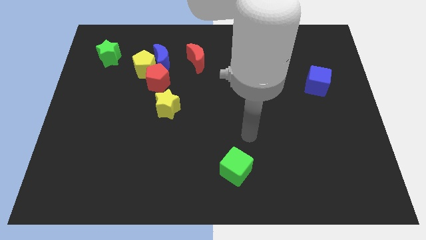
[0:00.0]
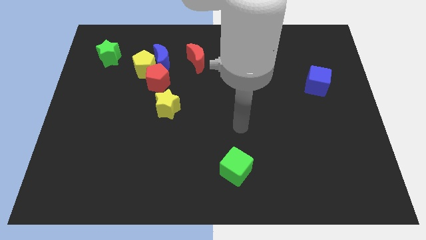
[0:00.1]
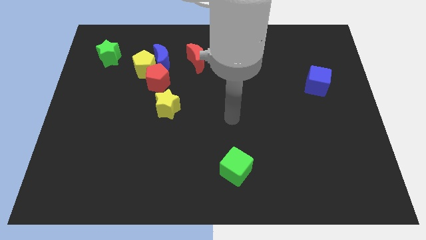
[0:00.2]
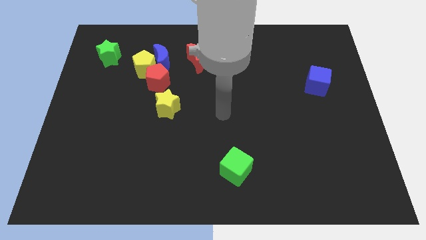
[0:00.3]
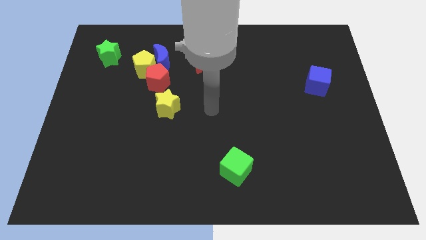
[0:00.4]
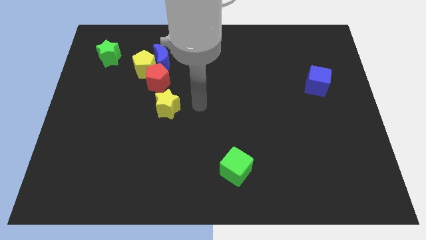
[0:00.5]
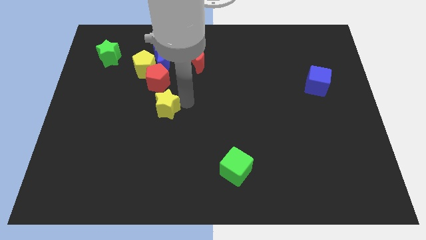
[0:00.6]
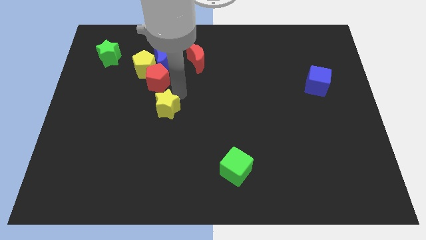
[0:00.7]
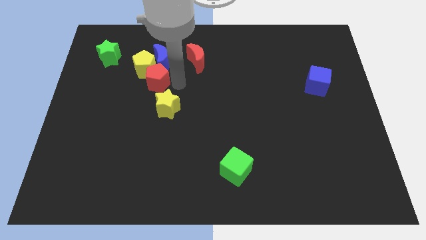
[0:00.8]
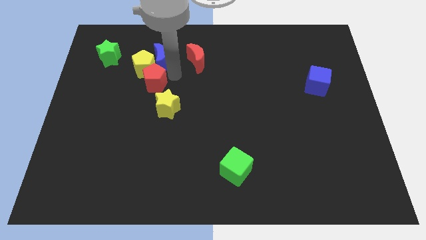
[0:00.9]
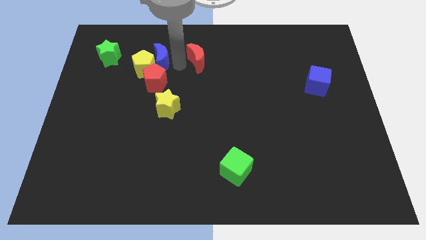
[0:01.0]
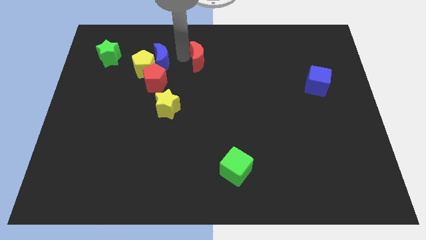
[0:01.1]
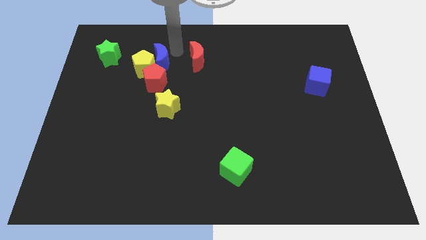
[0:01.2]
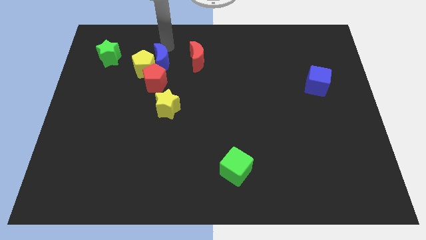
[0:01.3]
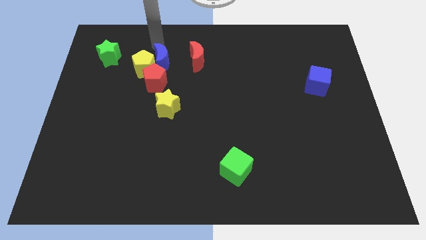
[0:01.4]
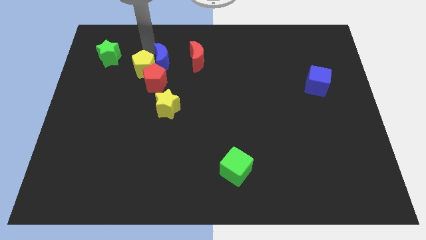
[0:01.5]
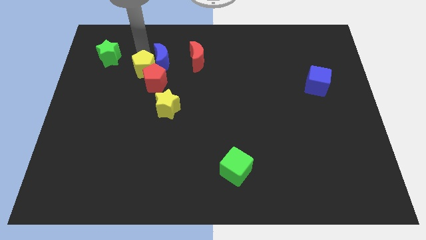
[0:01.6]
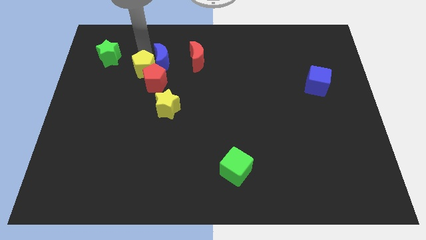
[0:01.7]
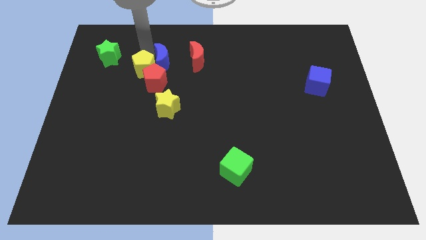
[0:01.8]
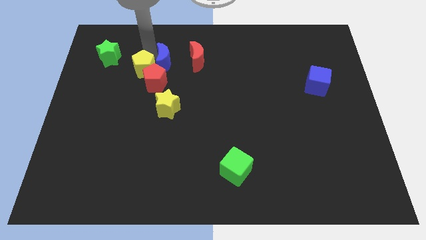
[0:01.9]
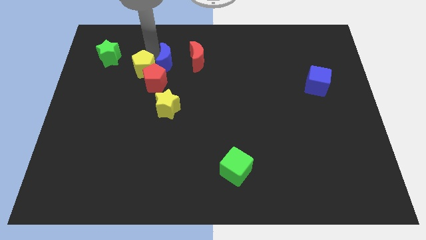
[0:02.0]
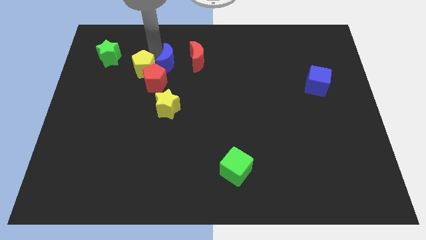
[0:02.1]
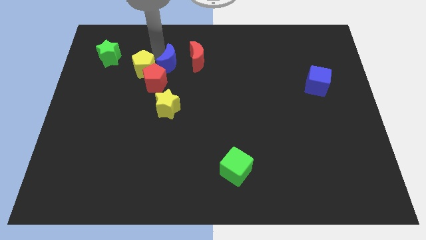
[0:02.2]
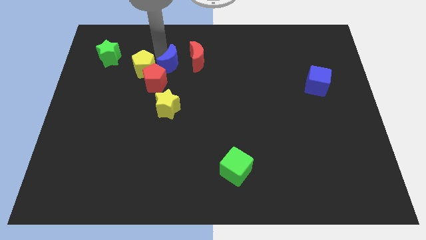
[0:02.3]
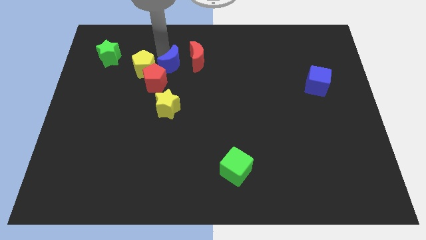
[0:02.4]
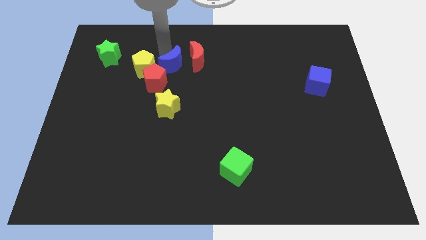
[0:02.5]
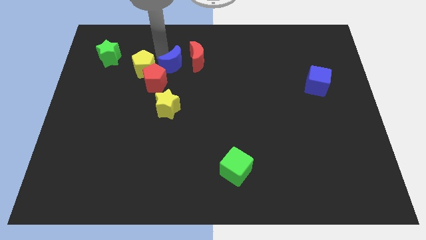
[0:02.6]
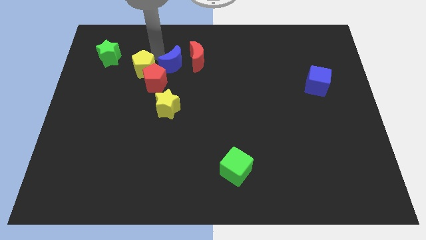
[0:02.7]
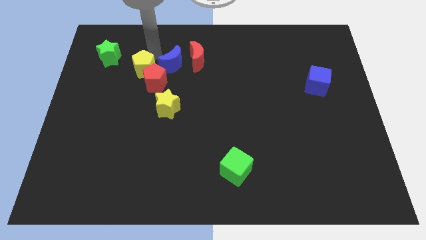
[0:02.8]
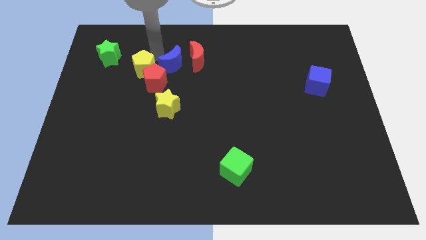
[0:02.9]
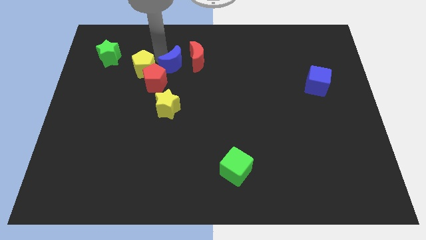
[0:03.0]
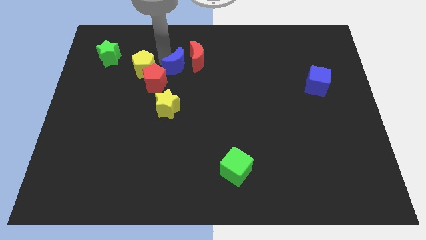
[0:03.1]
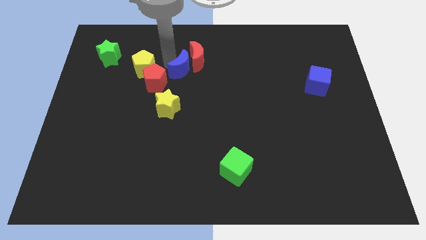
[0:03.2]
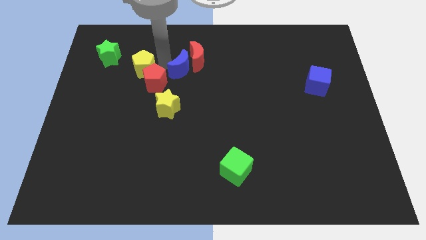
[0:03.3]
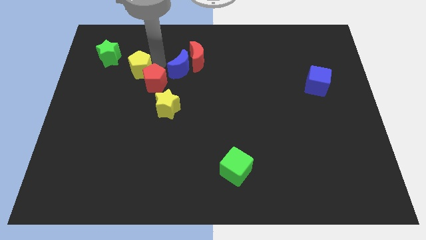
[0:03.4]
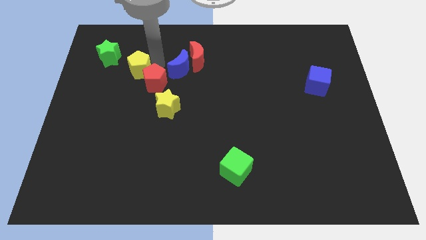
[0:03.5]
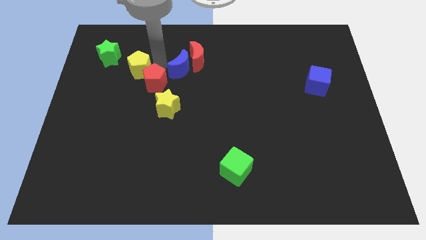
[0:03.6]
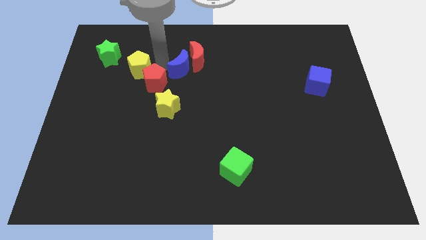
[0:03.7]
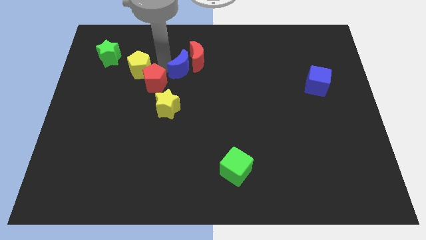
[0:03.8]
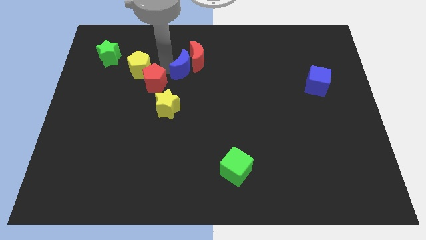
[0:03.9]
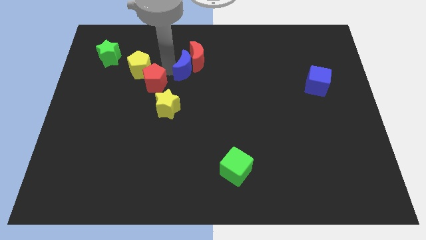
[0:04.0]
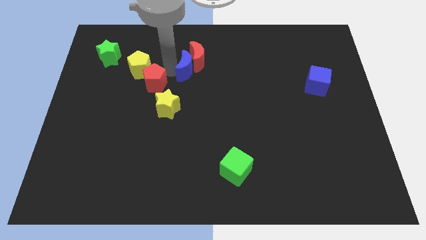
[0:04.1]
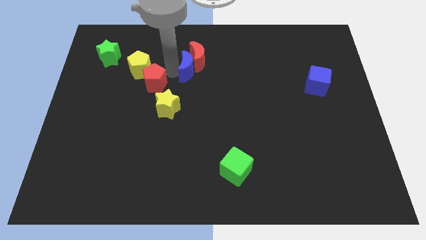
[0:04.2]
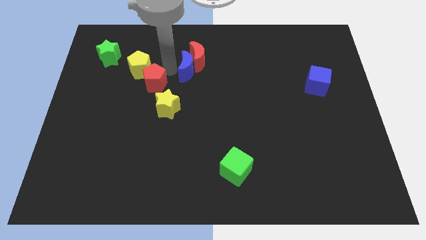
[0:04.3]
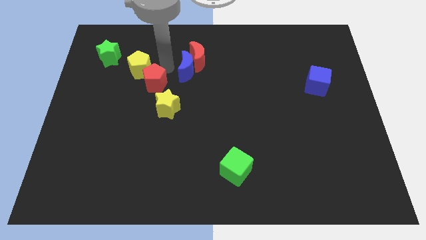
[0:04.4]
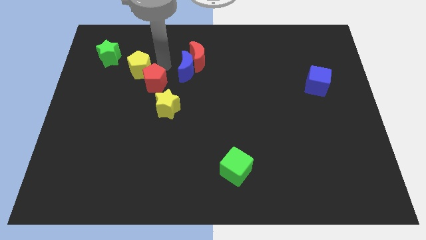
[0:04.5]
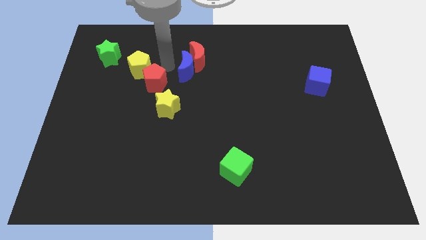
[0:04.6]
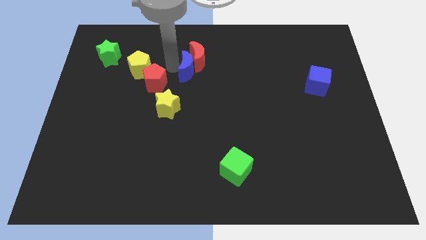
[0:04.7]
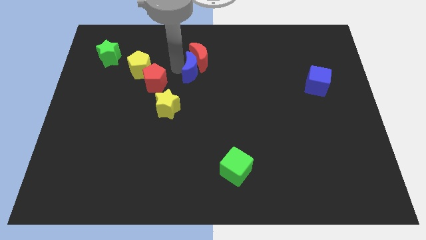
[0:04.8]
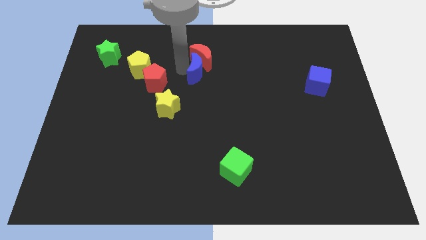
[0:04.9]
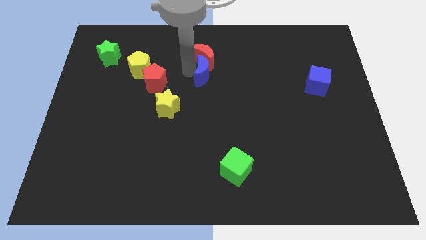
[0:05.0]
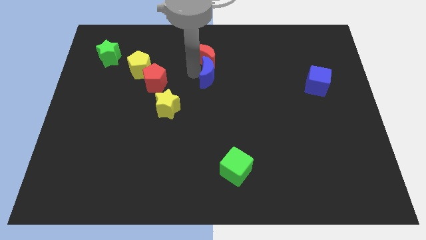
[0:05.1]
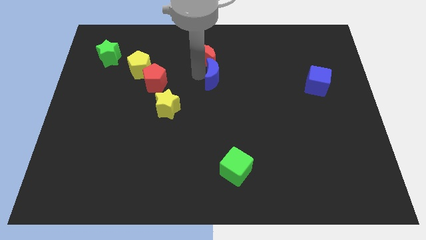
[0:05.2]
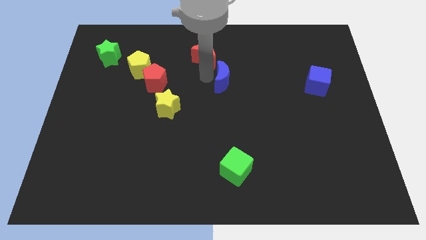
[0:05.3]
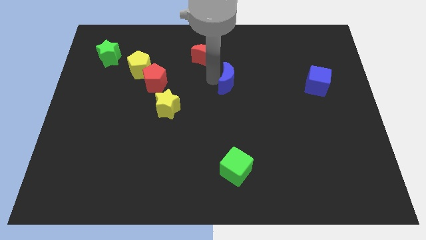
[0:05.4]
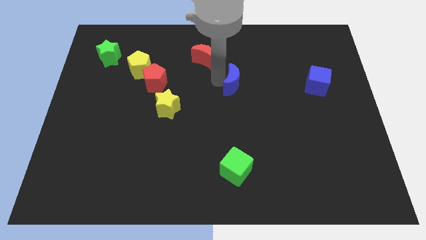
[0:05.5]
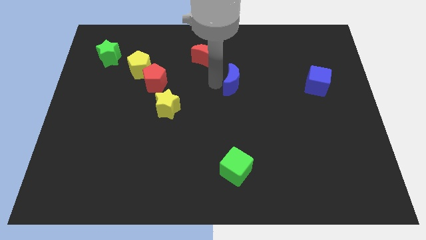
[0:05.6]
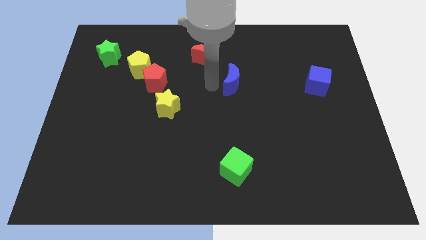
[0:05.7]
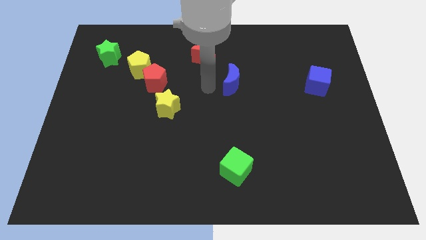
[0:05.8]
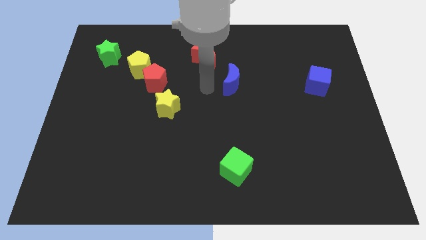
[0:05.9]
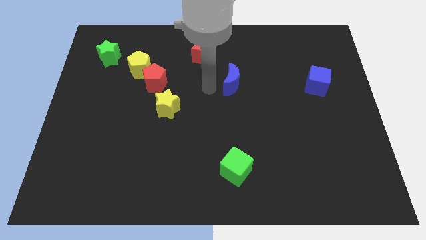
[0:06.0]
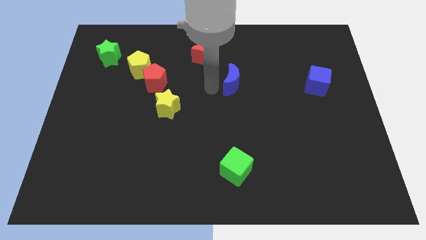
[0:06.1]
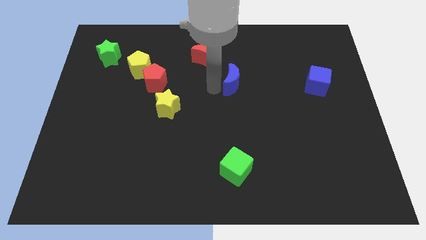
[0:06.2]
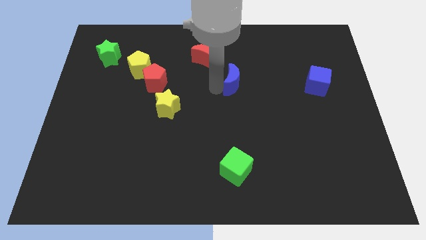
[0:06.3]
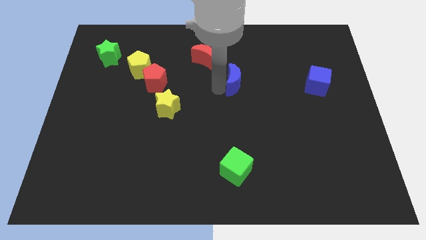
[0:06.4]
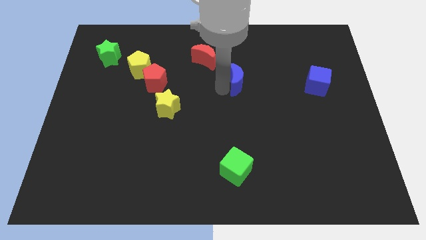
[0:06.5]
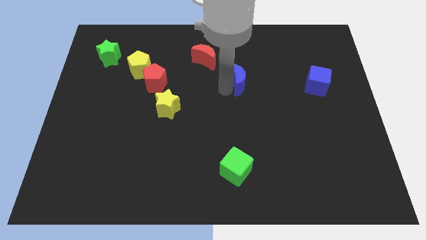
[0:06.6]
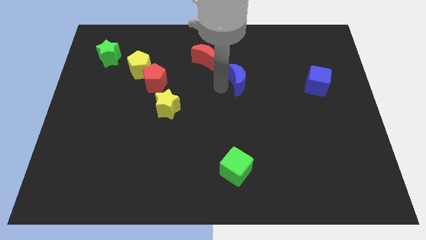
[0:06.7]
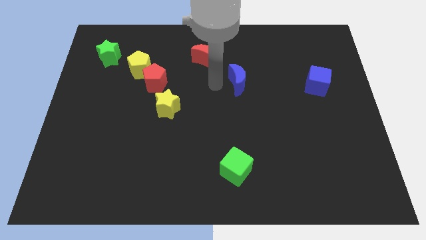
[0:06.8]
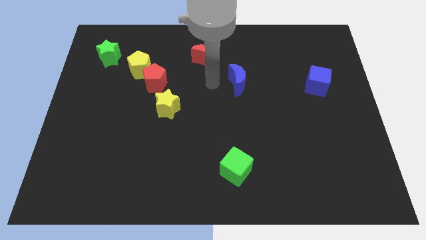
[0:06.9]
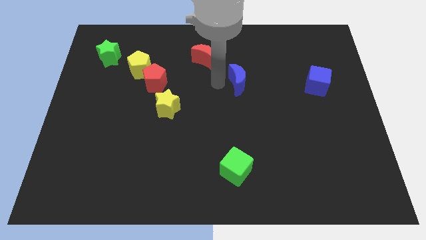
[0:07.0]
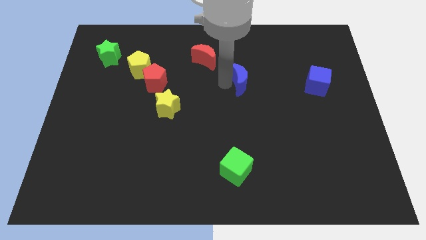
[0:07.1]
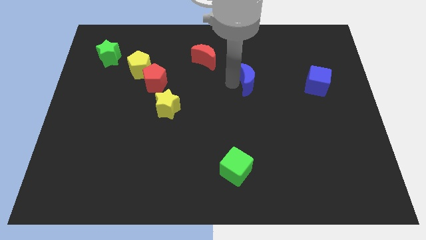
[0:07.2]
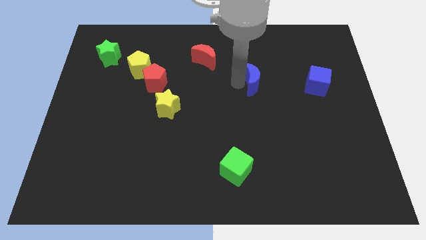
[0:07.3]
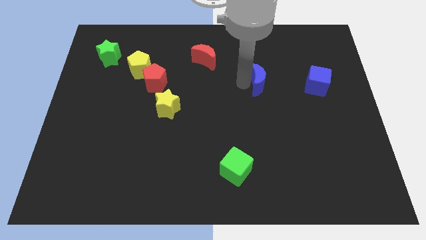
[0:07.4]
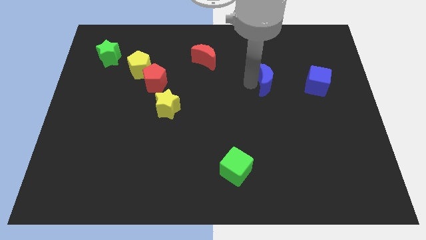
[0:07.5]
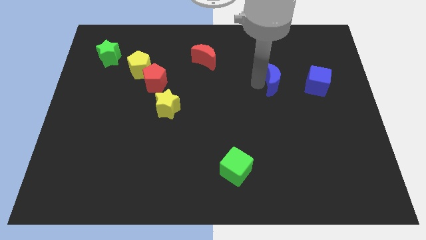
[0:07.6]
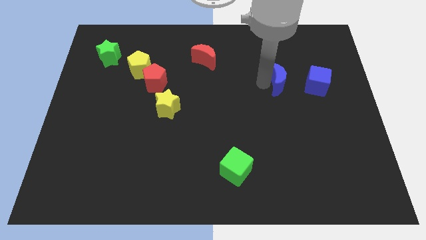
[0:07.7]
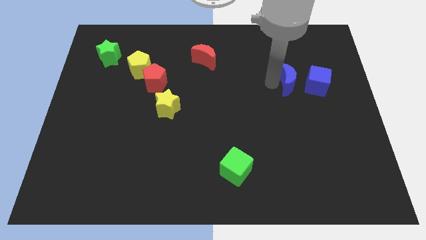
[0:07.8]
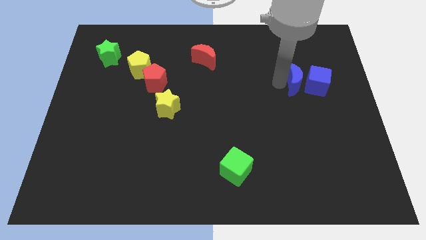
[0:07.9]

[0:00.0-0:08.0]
push the blue moon to the blue cube
